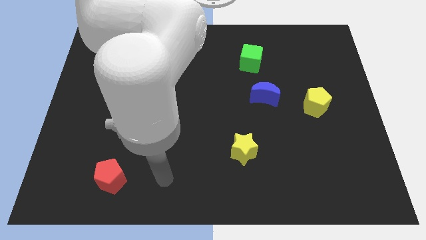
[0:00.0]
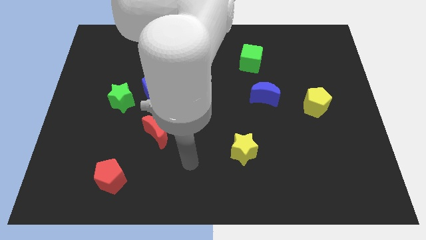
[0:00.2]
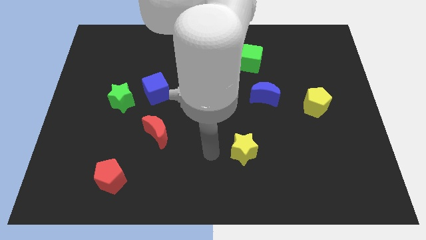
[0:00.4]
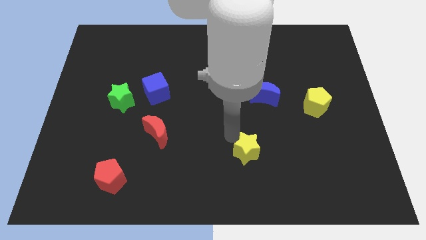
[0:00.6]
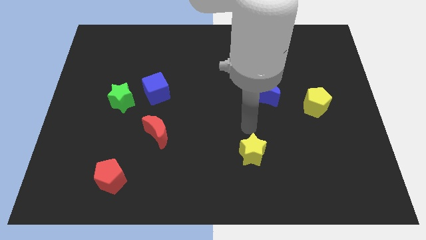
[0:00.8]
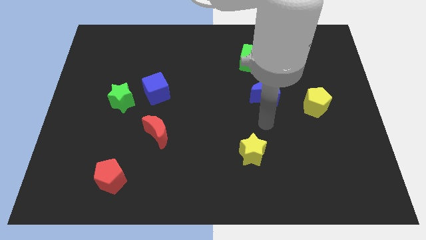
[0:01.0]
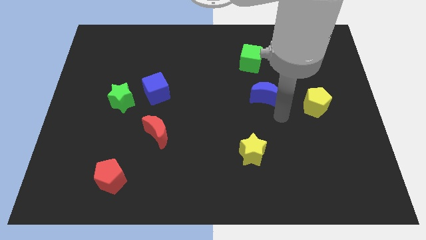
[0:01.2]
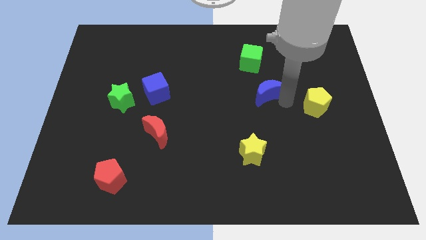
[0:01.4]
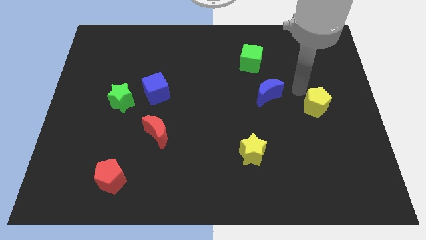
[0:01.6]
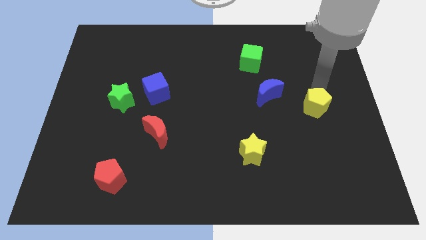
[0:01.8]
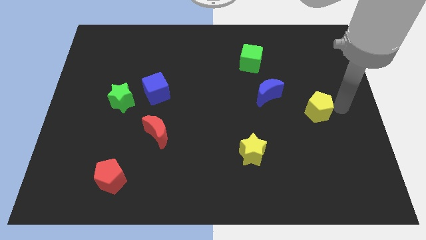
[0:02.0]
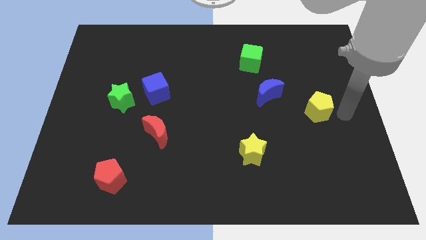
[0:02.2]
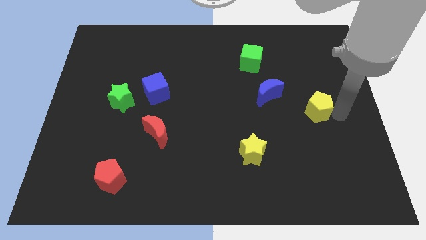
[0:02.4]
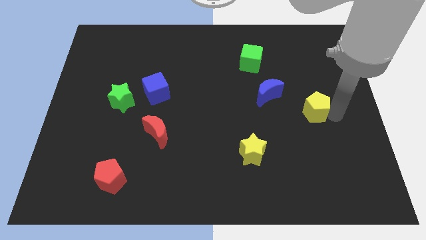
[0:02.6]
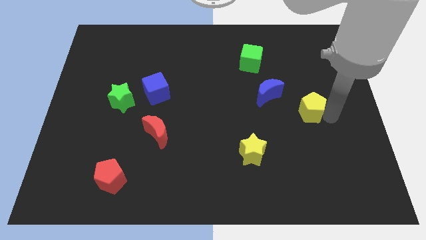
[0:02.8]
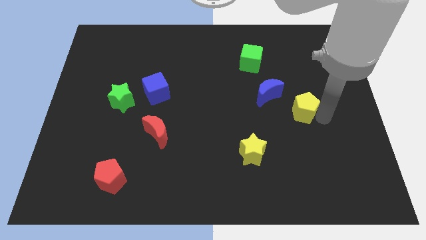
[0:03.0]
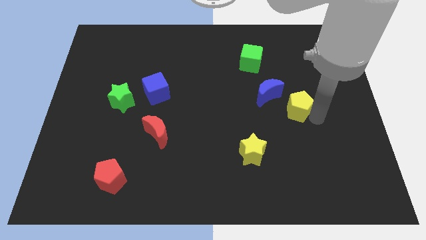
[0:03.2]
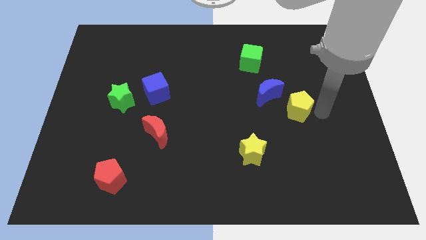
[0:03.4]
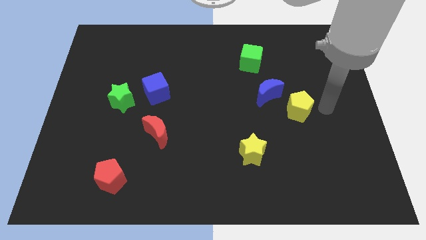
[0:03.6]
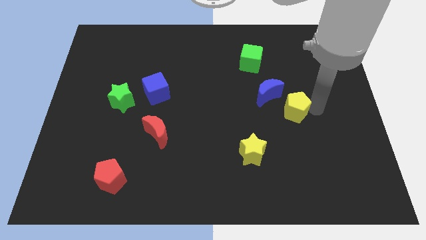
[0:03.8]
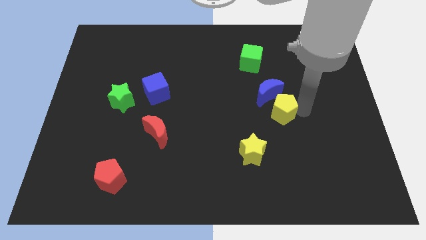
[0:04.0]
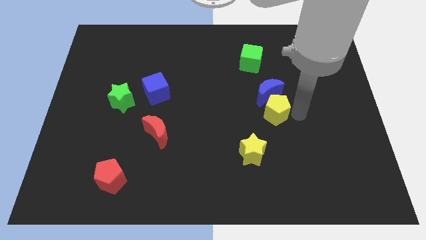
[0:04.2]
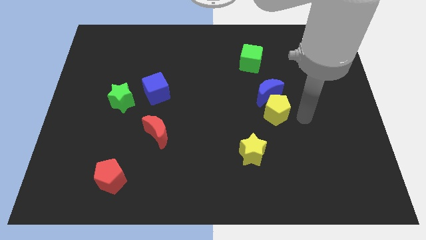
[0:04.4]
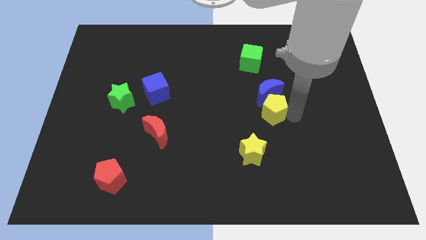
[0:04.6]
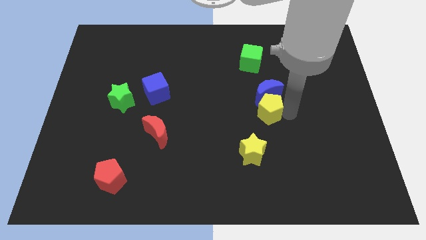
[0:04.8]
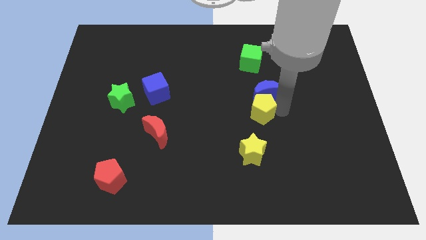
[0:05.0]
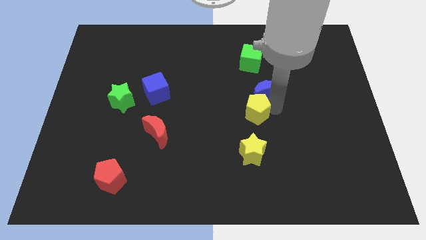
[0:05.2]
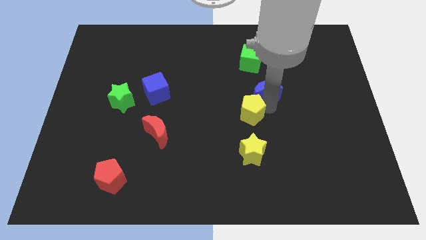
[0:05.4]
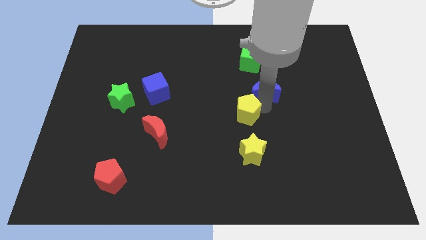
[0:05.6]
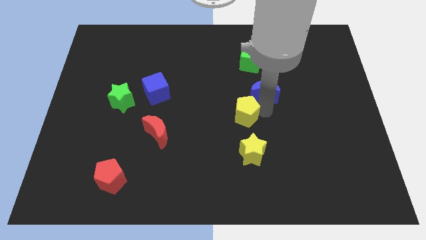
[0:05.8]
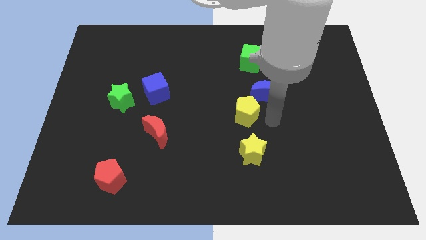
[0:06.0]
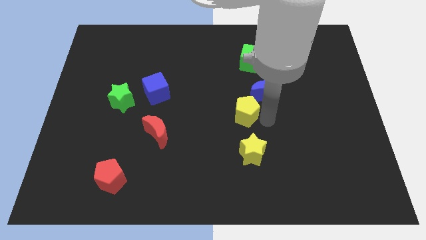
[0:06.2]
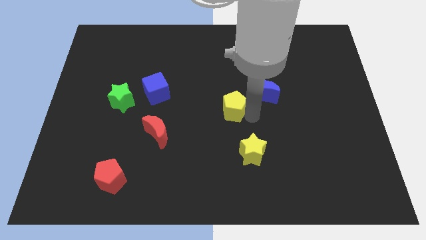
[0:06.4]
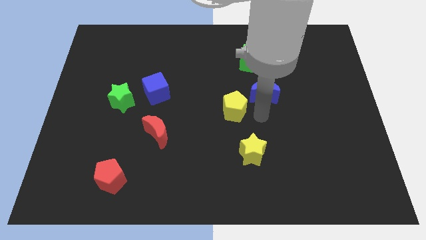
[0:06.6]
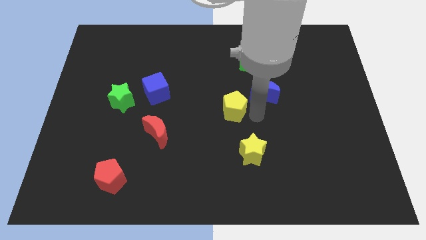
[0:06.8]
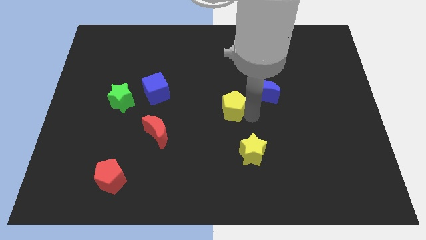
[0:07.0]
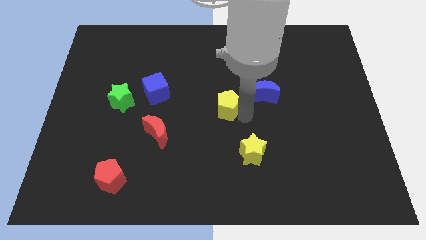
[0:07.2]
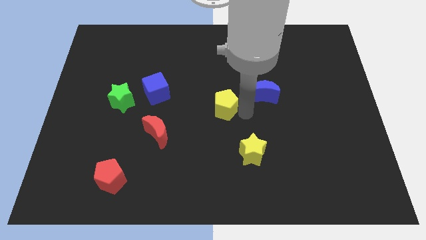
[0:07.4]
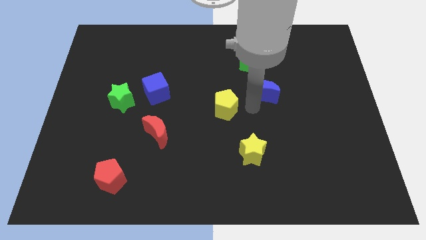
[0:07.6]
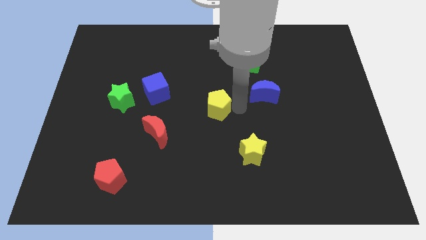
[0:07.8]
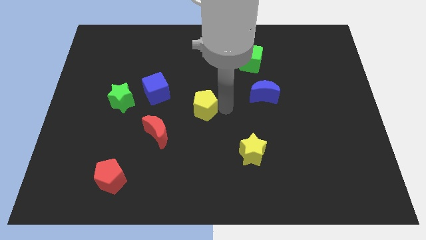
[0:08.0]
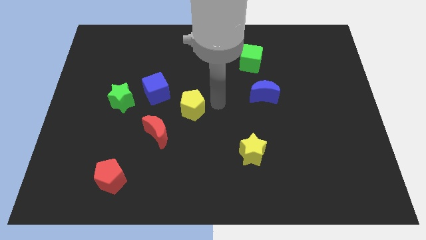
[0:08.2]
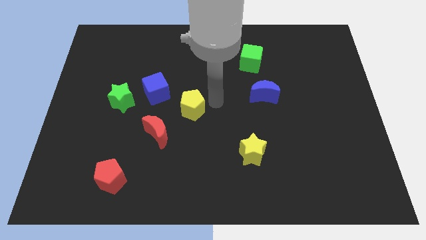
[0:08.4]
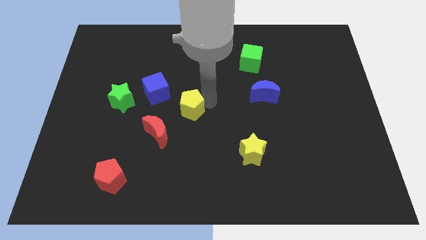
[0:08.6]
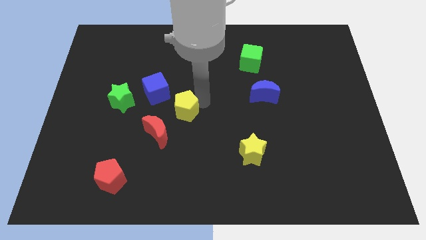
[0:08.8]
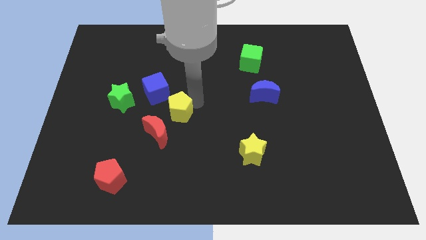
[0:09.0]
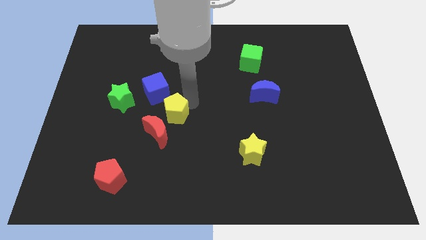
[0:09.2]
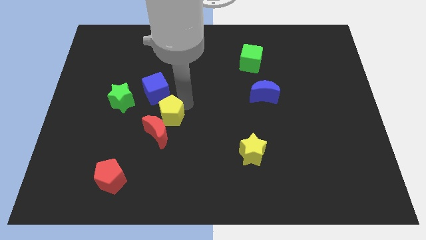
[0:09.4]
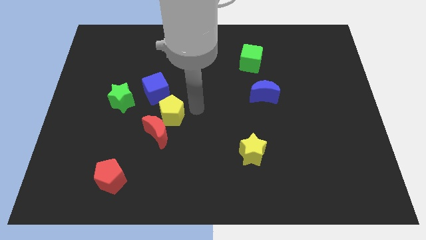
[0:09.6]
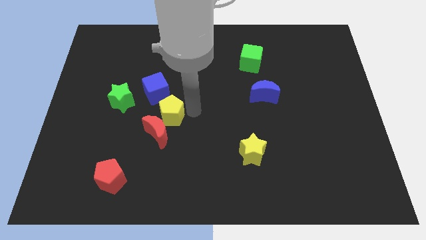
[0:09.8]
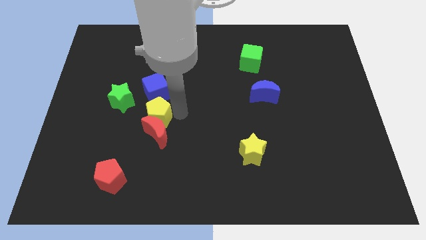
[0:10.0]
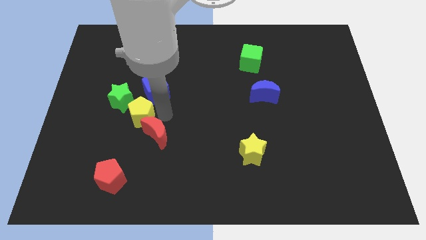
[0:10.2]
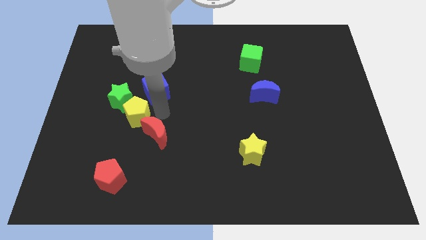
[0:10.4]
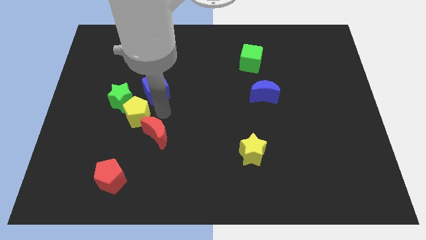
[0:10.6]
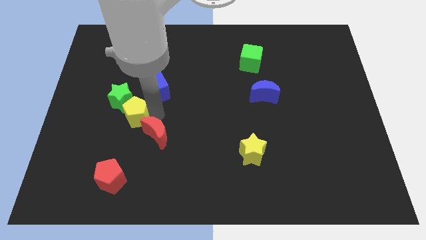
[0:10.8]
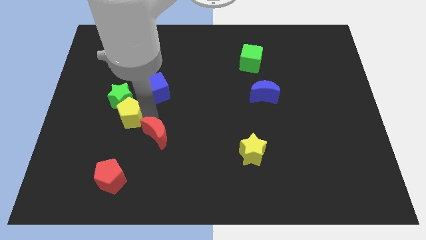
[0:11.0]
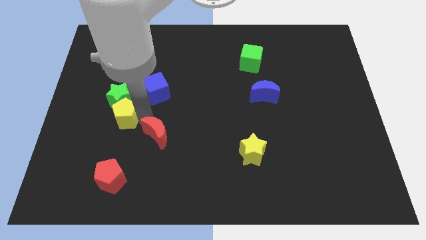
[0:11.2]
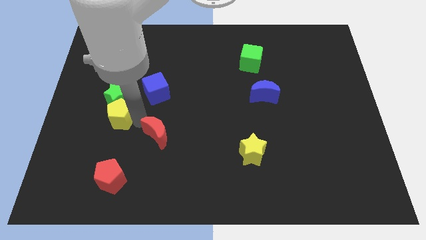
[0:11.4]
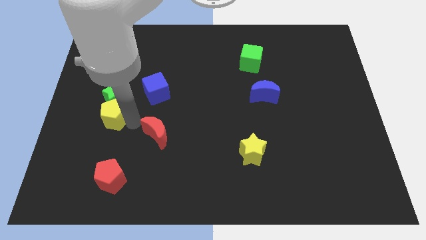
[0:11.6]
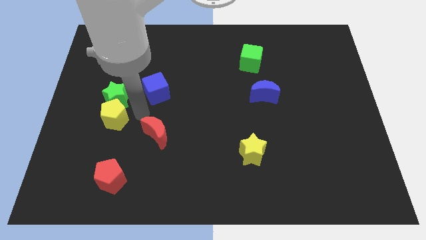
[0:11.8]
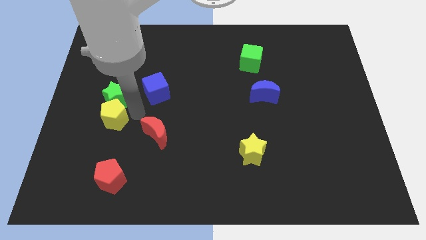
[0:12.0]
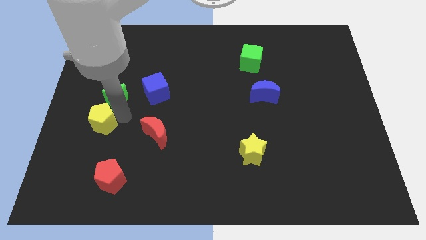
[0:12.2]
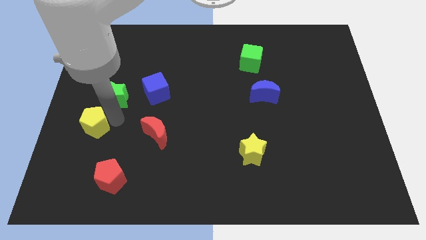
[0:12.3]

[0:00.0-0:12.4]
slide the yellow pentagon to the left side of the board
